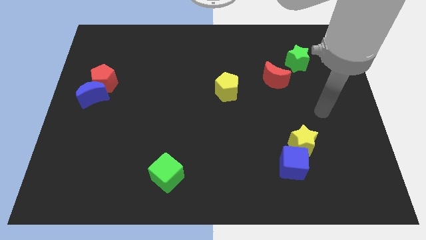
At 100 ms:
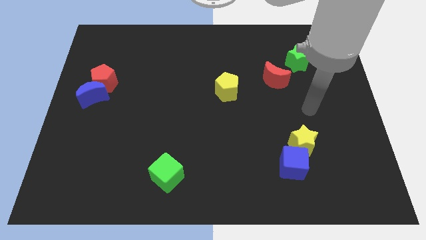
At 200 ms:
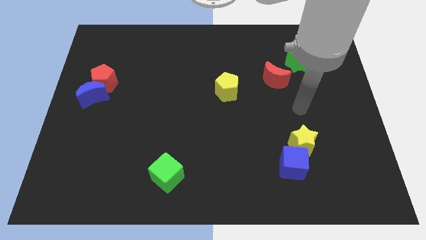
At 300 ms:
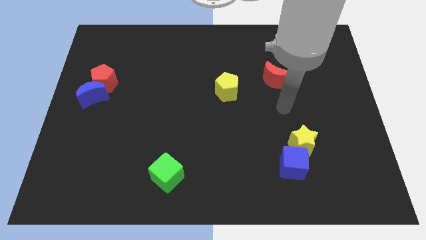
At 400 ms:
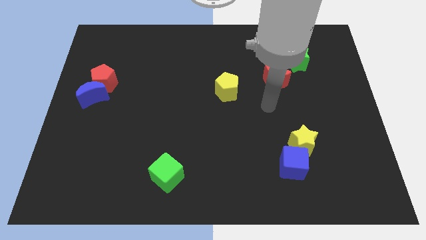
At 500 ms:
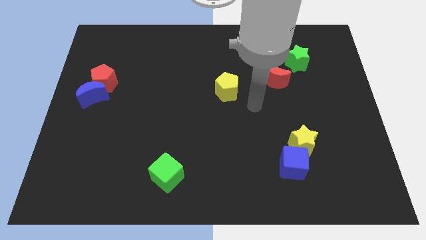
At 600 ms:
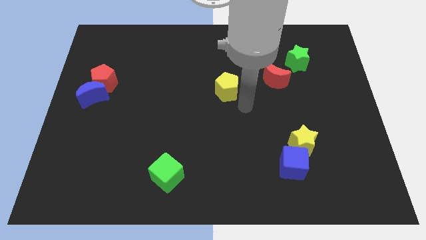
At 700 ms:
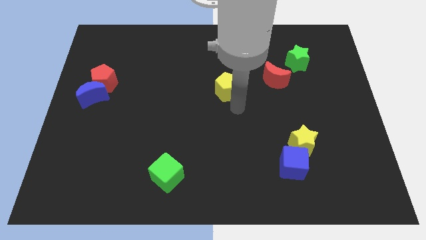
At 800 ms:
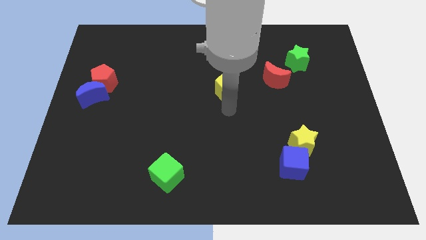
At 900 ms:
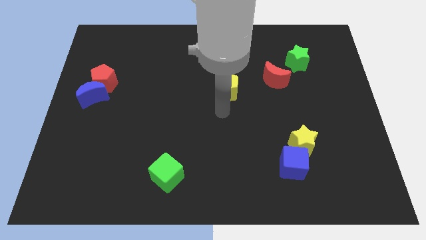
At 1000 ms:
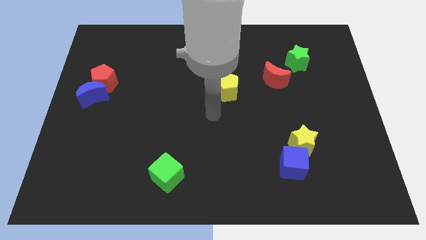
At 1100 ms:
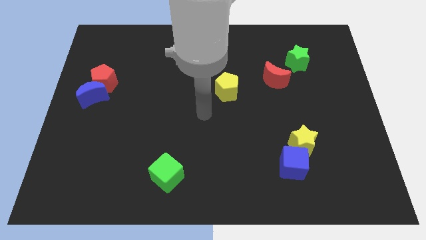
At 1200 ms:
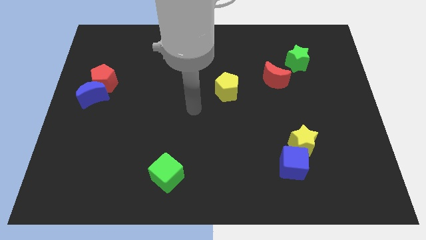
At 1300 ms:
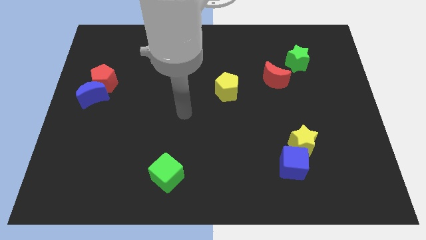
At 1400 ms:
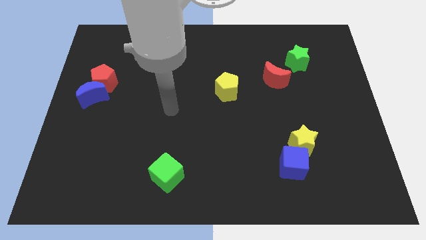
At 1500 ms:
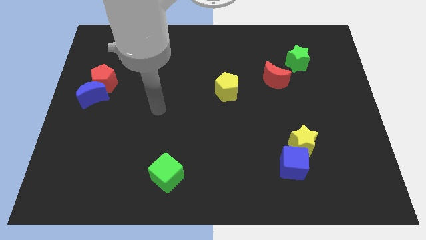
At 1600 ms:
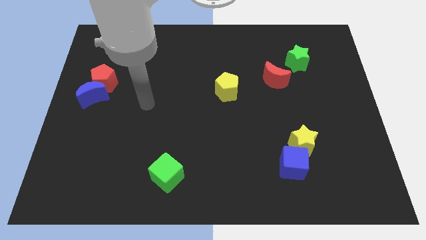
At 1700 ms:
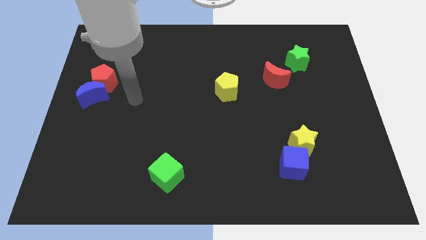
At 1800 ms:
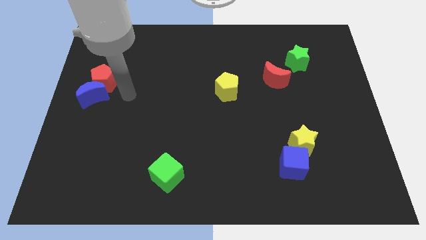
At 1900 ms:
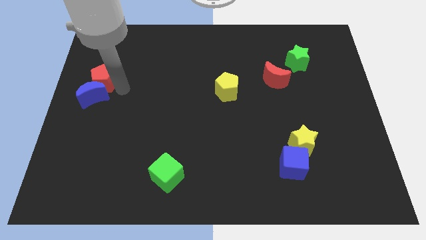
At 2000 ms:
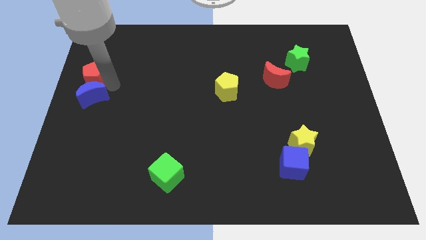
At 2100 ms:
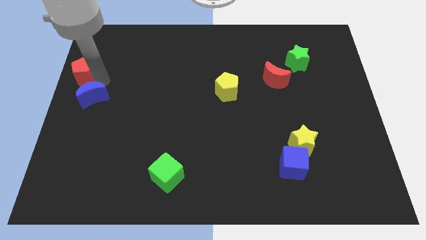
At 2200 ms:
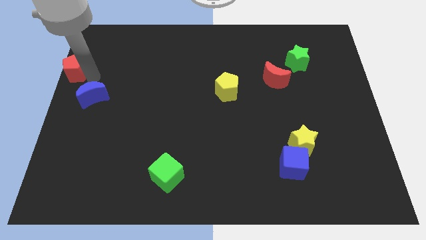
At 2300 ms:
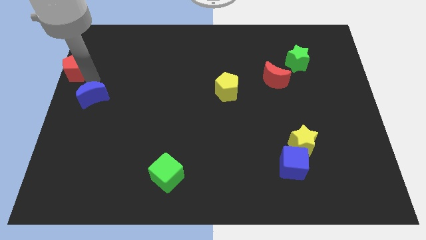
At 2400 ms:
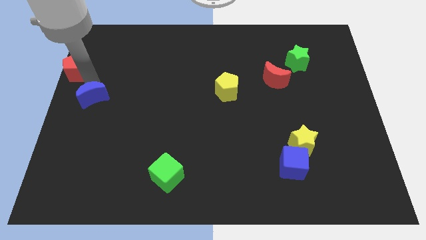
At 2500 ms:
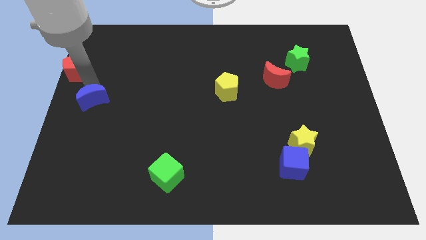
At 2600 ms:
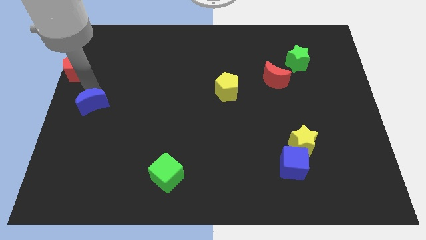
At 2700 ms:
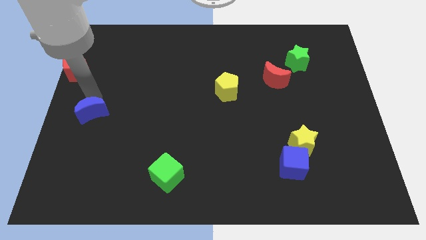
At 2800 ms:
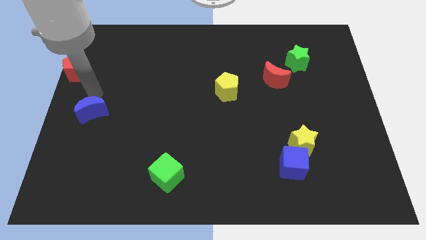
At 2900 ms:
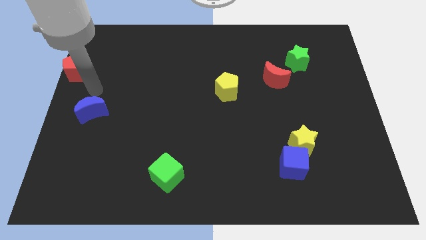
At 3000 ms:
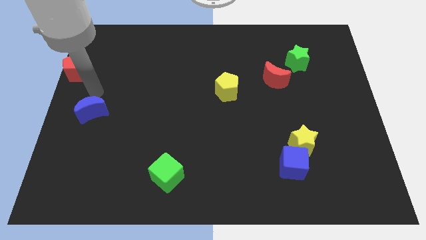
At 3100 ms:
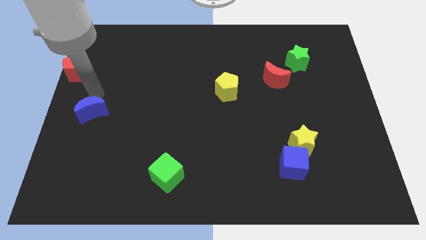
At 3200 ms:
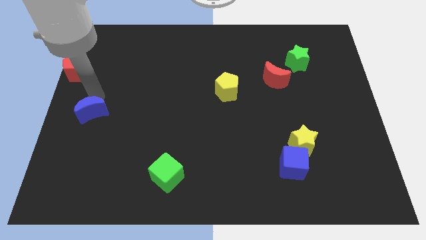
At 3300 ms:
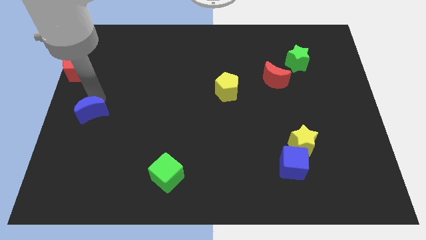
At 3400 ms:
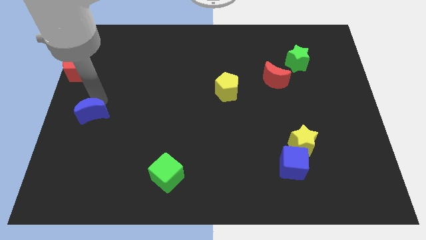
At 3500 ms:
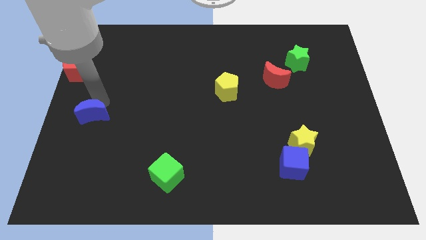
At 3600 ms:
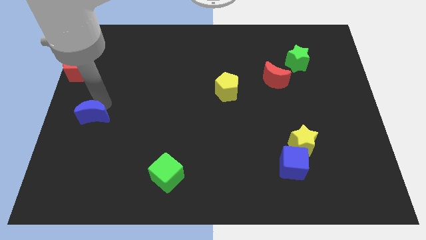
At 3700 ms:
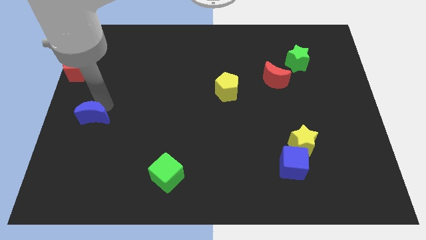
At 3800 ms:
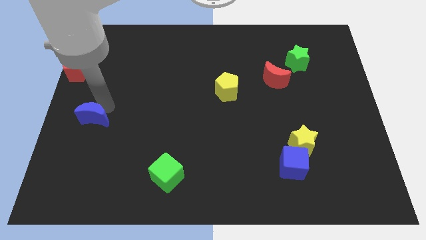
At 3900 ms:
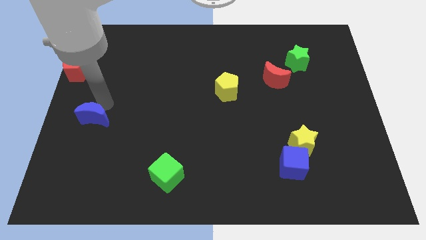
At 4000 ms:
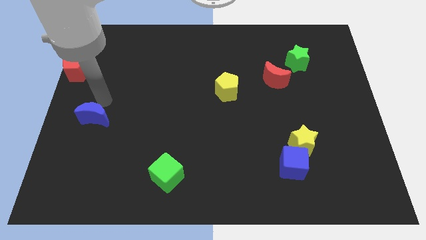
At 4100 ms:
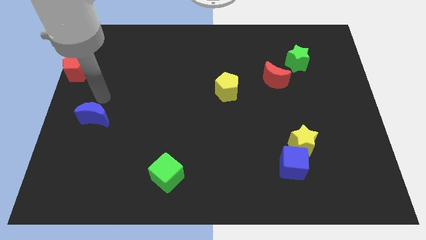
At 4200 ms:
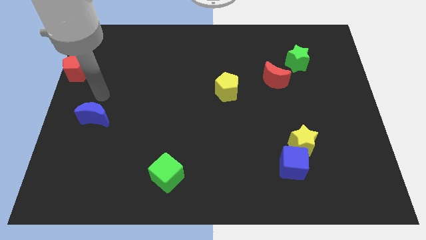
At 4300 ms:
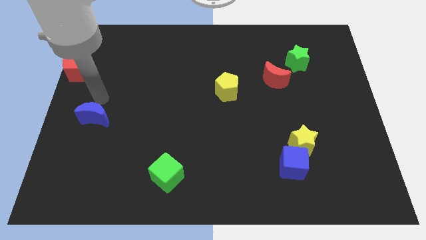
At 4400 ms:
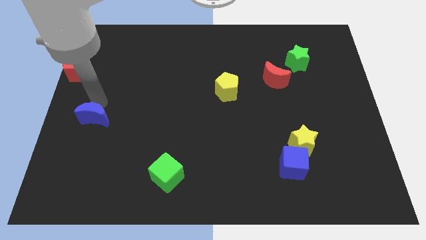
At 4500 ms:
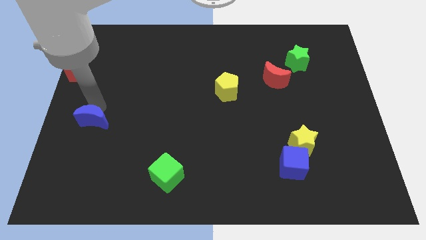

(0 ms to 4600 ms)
slightly move the blue moon downwards

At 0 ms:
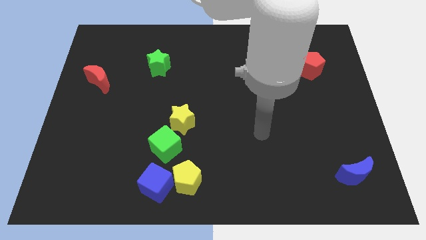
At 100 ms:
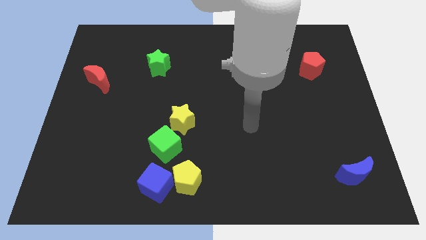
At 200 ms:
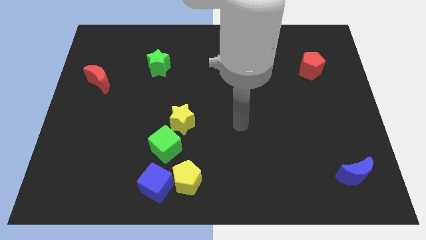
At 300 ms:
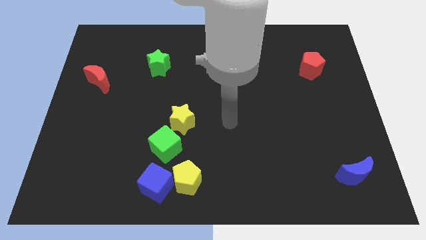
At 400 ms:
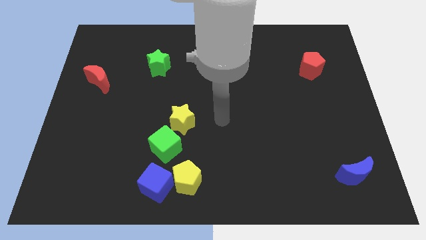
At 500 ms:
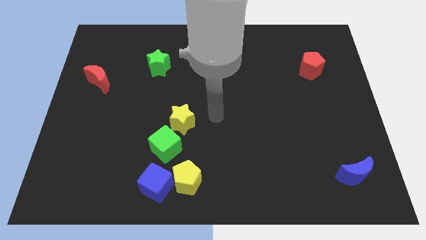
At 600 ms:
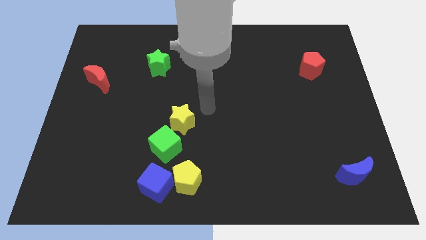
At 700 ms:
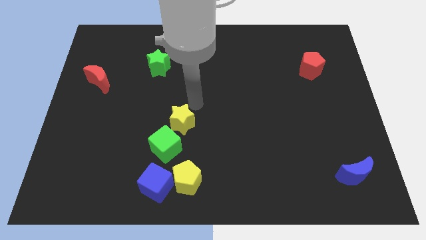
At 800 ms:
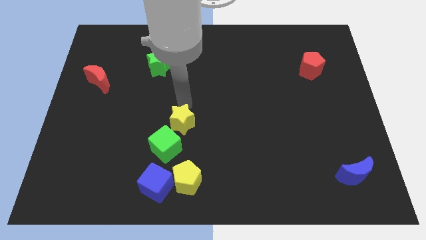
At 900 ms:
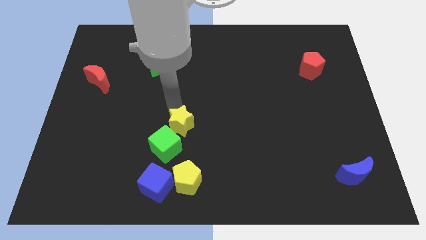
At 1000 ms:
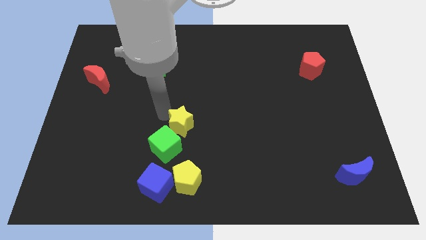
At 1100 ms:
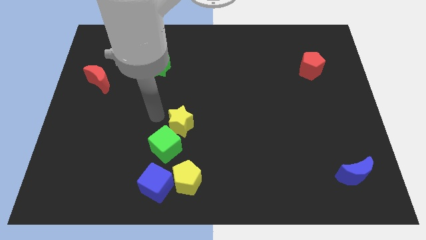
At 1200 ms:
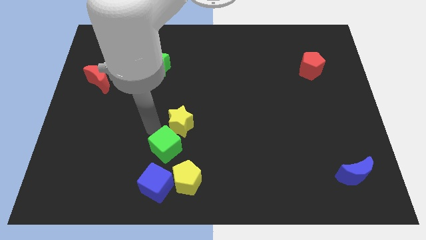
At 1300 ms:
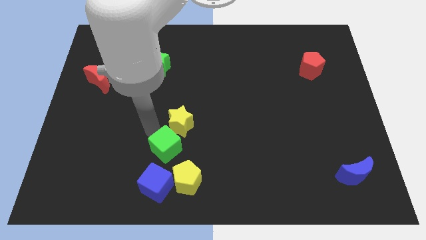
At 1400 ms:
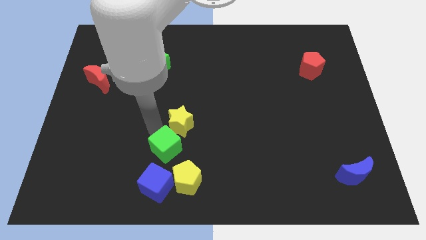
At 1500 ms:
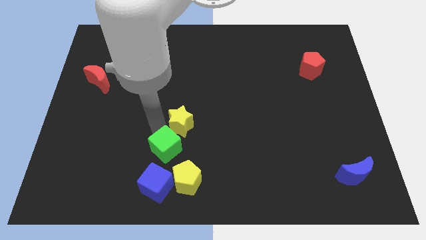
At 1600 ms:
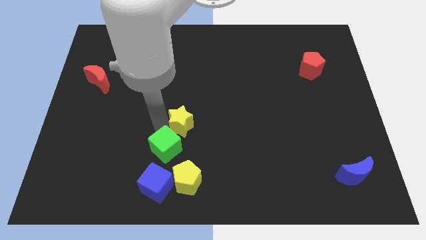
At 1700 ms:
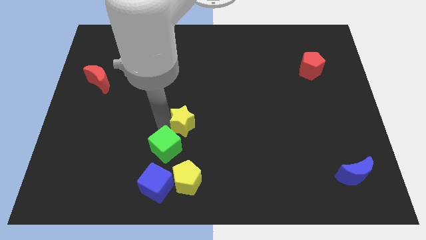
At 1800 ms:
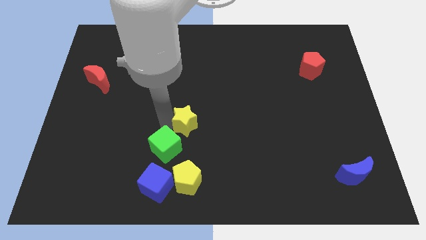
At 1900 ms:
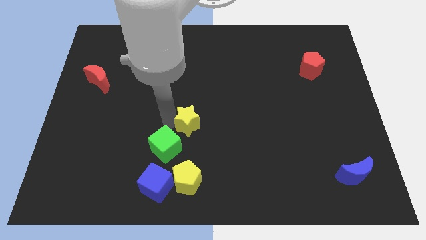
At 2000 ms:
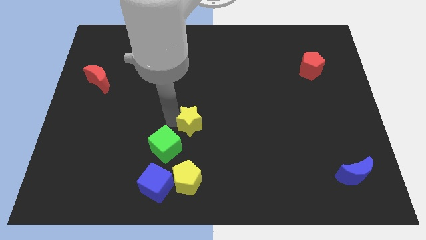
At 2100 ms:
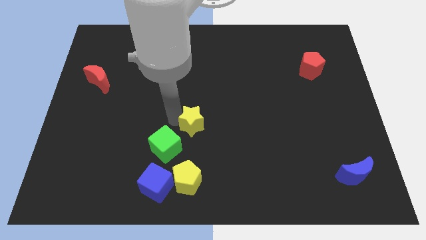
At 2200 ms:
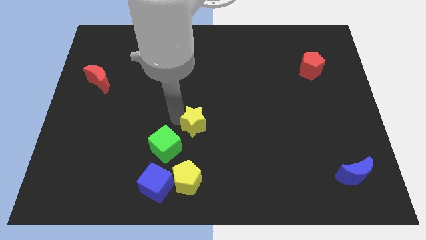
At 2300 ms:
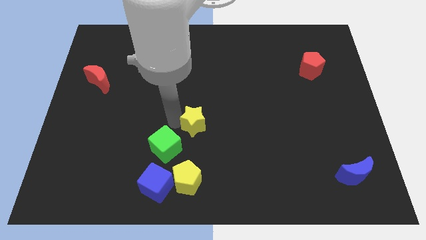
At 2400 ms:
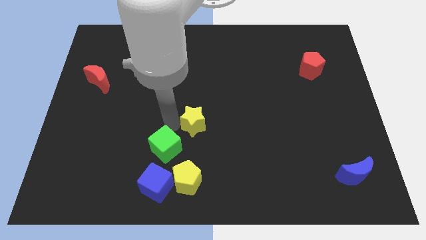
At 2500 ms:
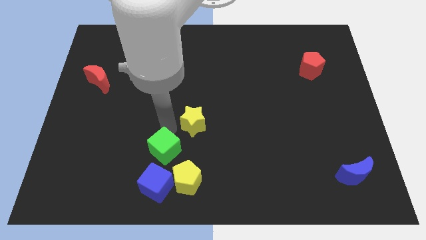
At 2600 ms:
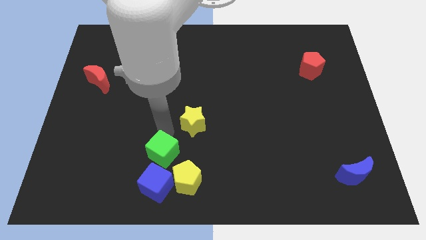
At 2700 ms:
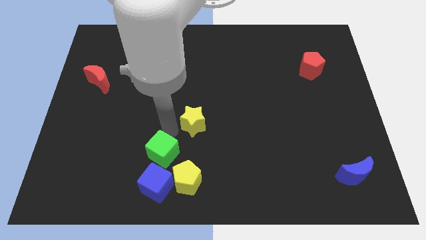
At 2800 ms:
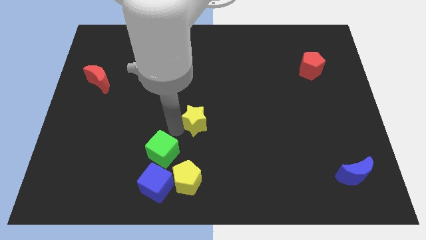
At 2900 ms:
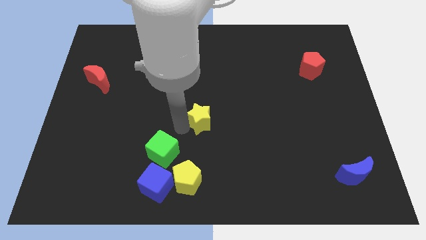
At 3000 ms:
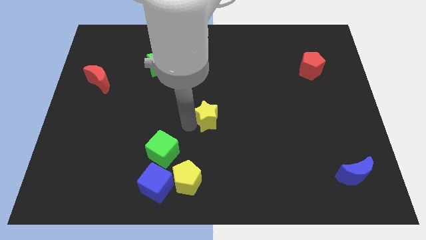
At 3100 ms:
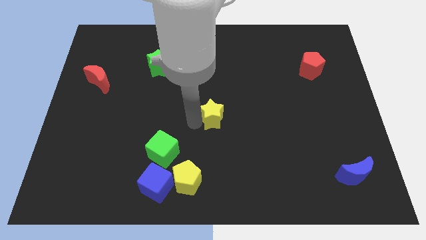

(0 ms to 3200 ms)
move the yellow star right a little bit

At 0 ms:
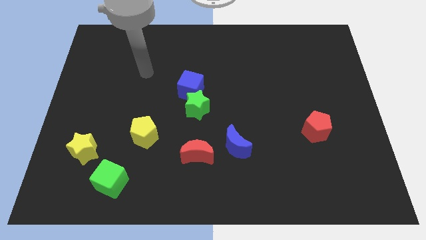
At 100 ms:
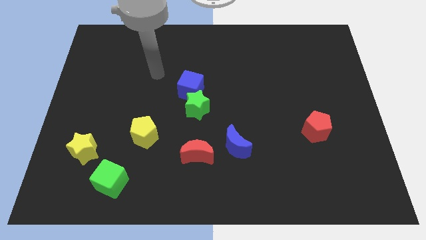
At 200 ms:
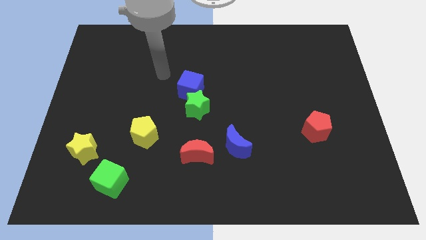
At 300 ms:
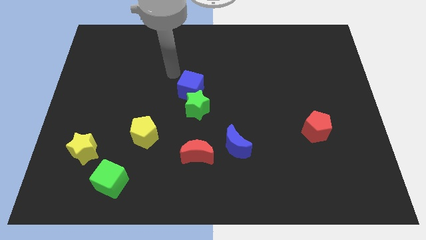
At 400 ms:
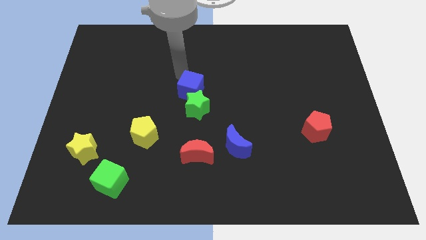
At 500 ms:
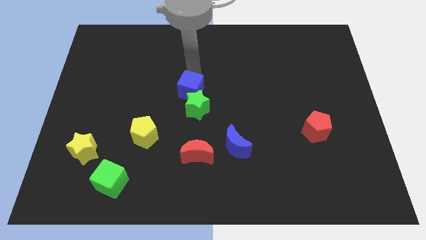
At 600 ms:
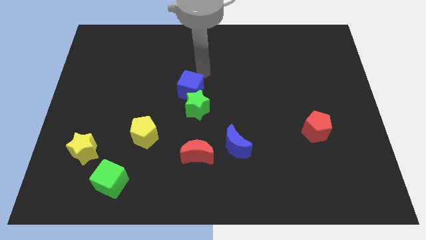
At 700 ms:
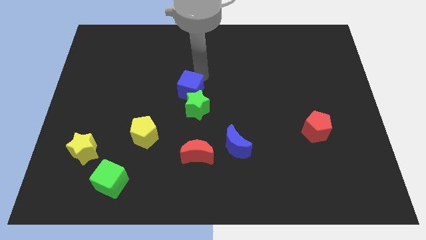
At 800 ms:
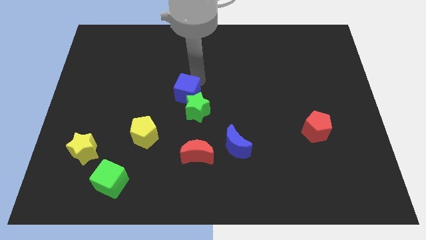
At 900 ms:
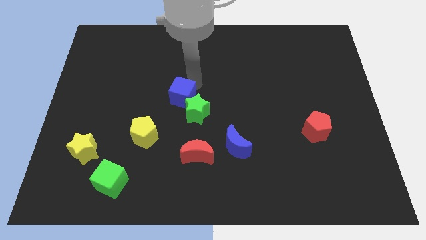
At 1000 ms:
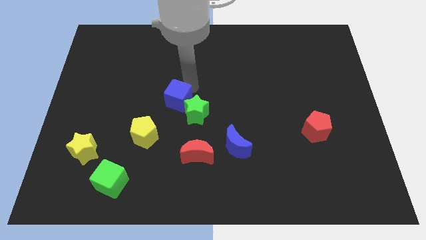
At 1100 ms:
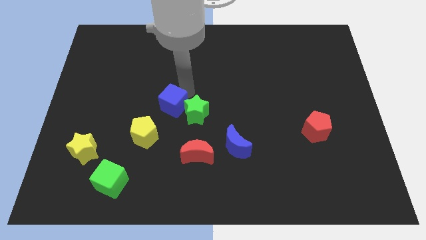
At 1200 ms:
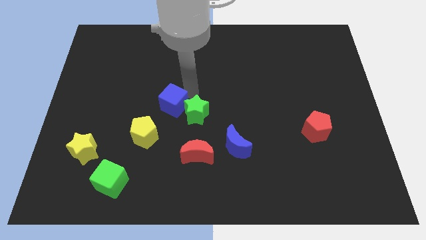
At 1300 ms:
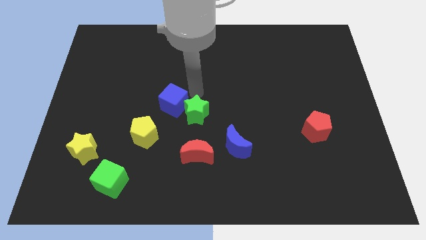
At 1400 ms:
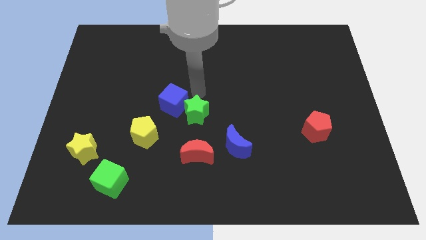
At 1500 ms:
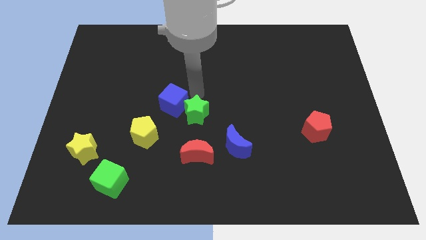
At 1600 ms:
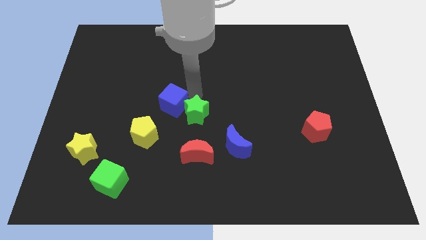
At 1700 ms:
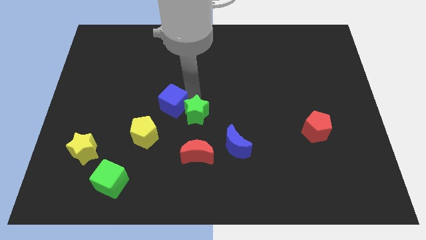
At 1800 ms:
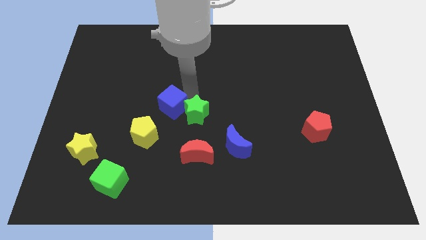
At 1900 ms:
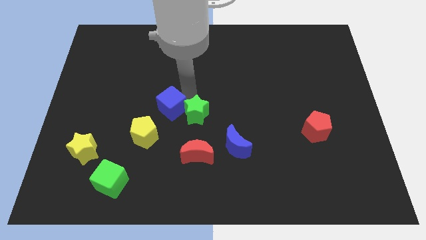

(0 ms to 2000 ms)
push the blue cube downwards and to the left slightly
